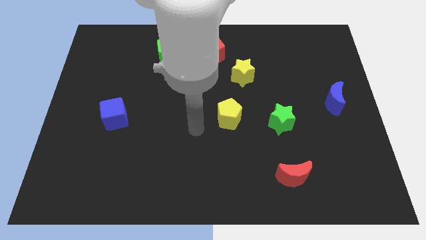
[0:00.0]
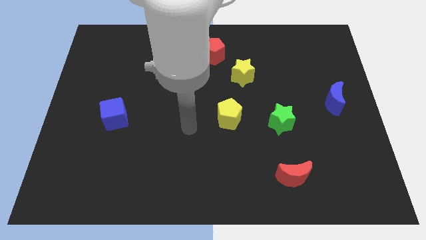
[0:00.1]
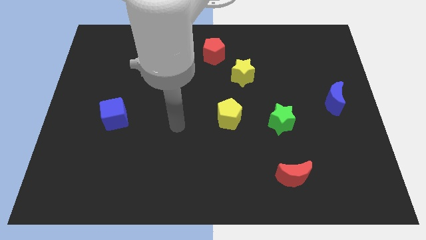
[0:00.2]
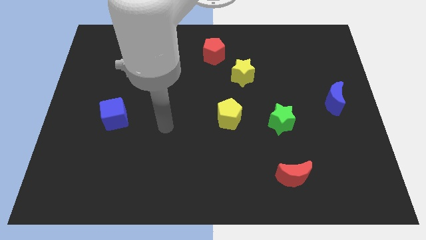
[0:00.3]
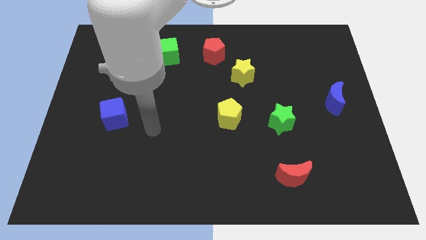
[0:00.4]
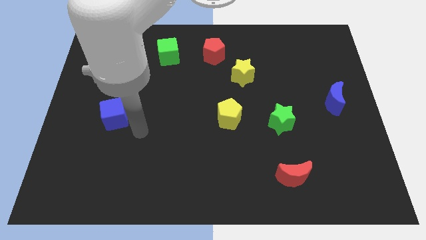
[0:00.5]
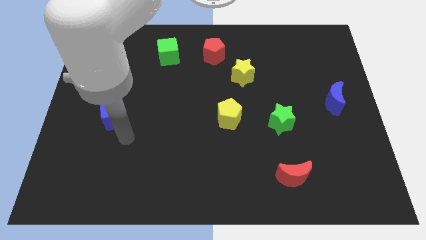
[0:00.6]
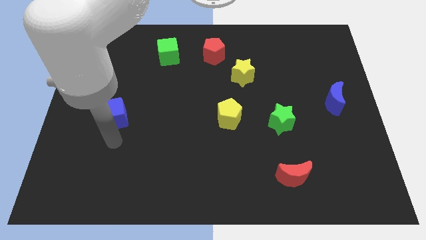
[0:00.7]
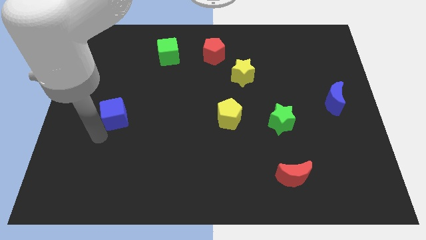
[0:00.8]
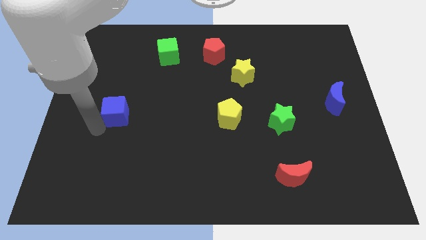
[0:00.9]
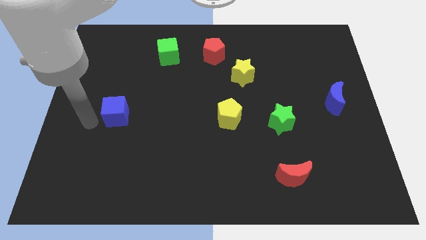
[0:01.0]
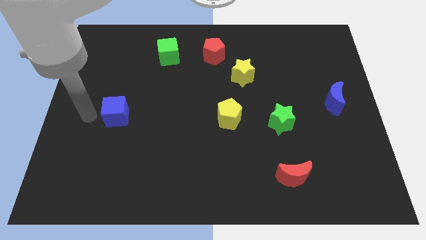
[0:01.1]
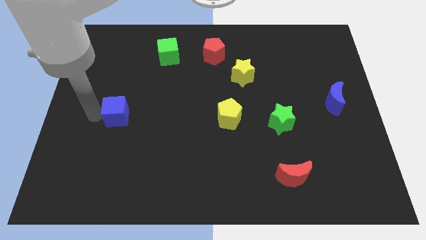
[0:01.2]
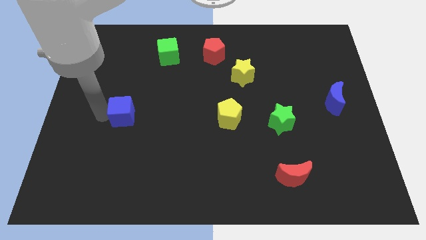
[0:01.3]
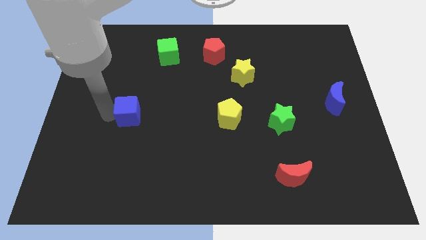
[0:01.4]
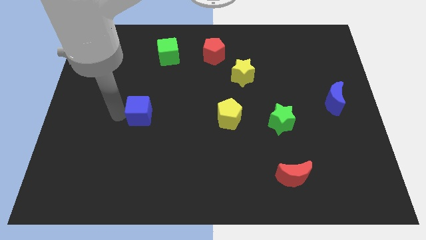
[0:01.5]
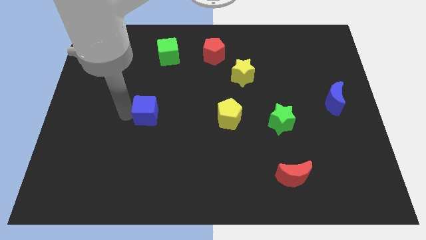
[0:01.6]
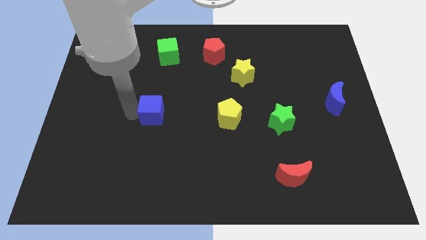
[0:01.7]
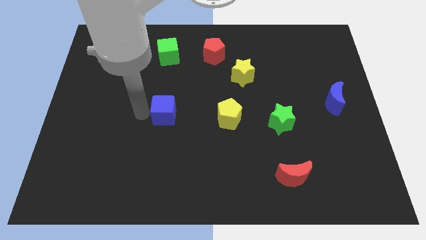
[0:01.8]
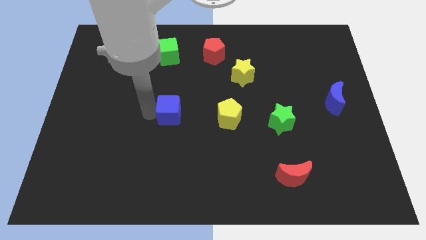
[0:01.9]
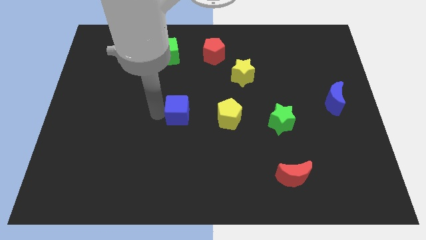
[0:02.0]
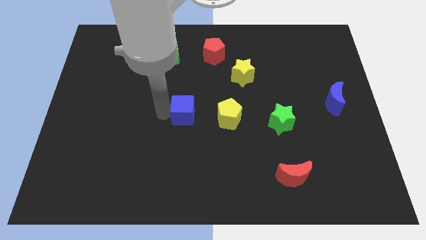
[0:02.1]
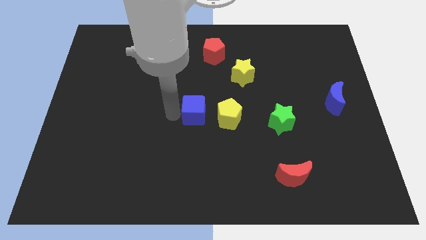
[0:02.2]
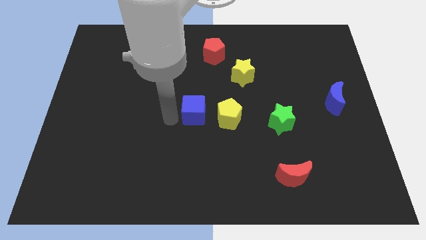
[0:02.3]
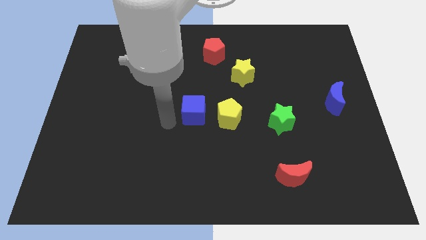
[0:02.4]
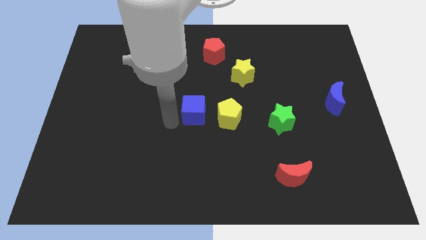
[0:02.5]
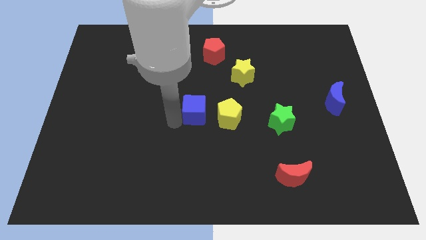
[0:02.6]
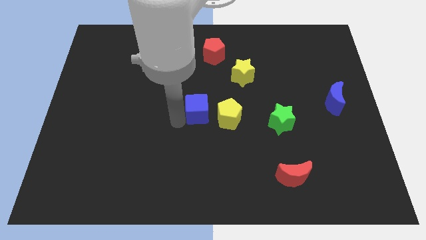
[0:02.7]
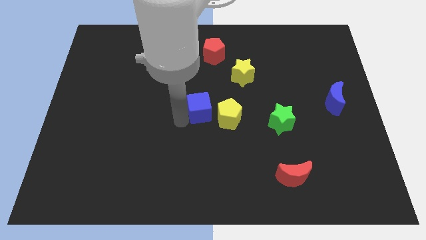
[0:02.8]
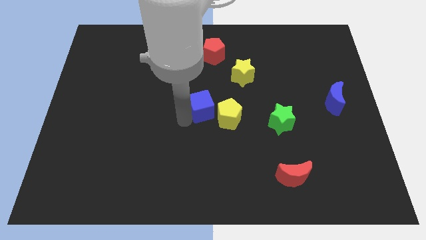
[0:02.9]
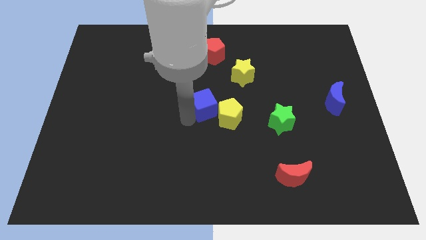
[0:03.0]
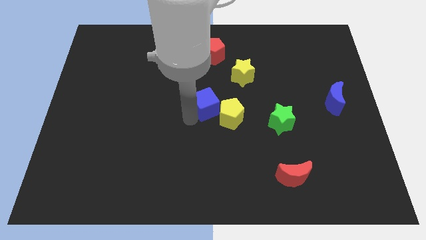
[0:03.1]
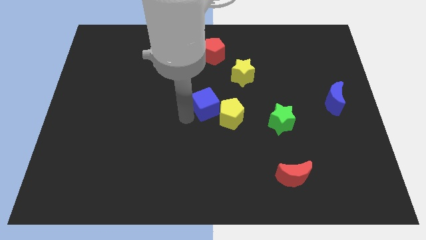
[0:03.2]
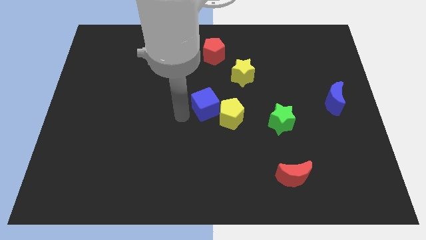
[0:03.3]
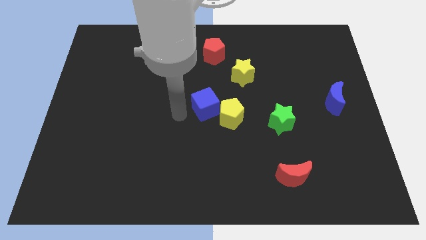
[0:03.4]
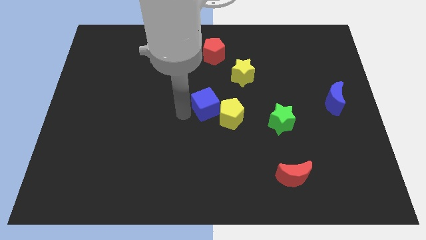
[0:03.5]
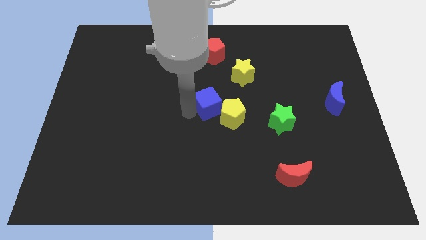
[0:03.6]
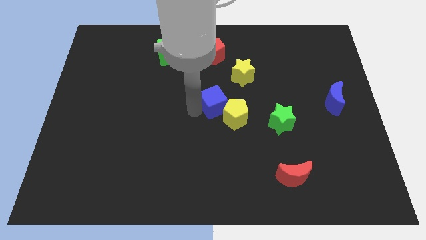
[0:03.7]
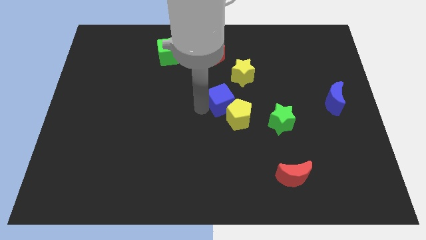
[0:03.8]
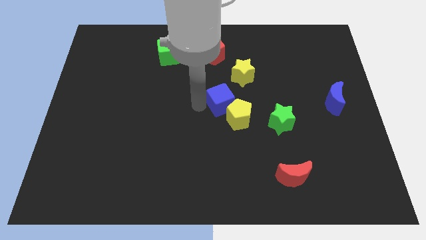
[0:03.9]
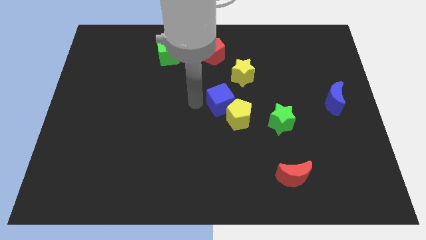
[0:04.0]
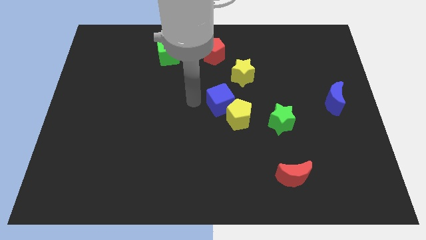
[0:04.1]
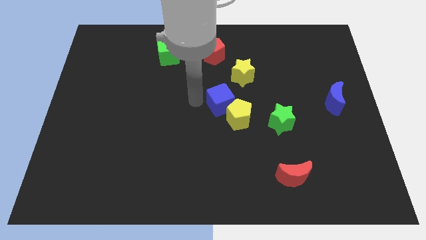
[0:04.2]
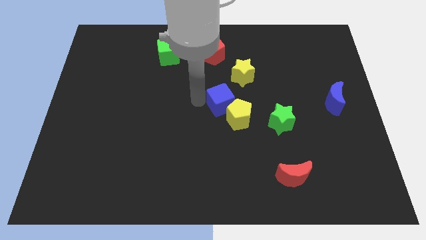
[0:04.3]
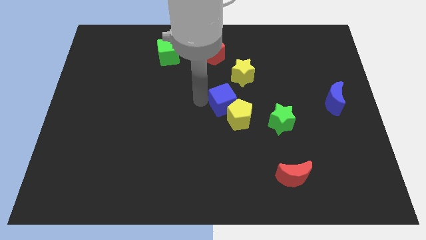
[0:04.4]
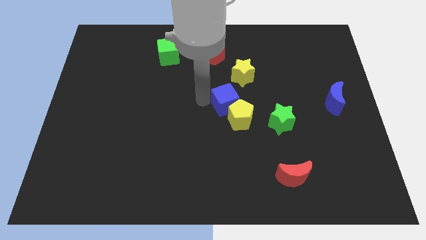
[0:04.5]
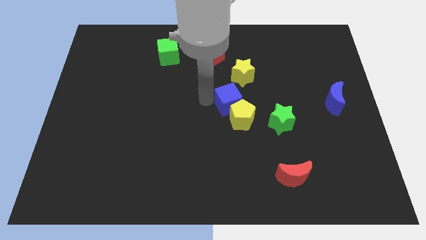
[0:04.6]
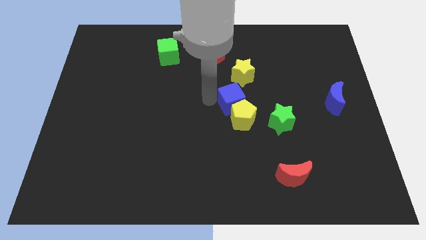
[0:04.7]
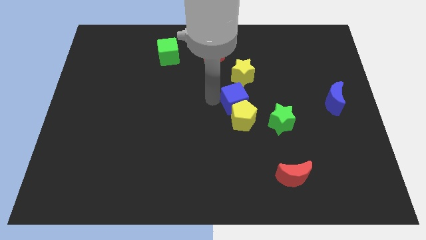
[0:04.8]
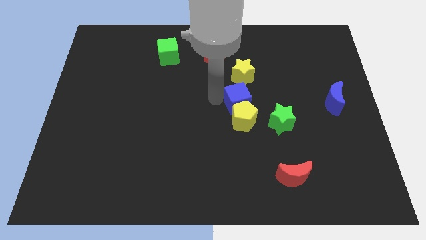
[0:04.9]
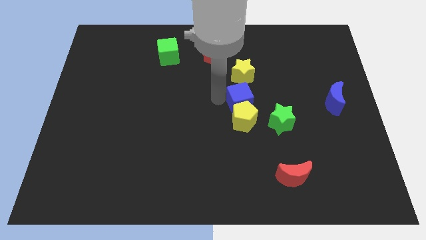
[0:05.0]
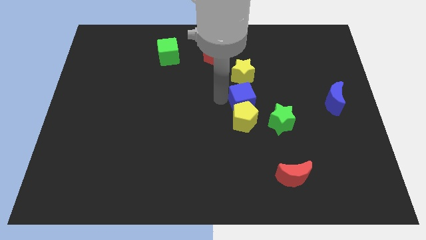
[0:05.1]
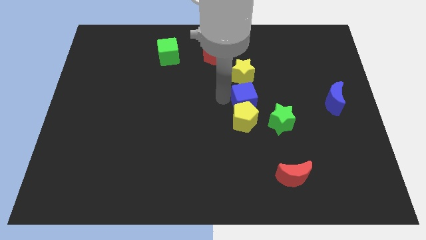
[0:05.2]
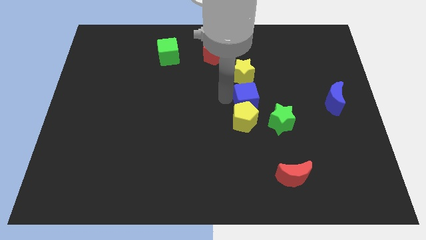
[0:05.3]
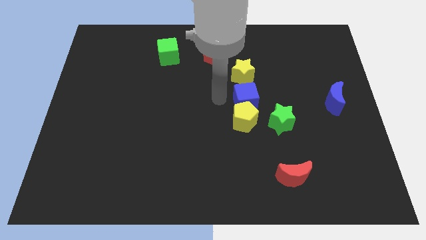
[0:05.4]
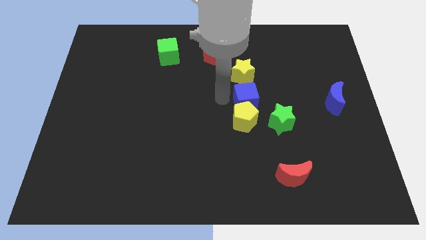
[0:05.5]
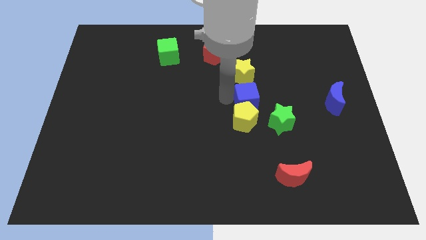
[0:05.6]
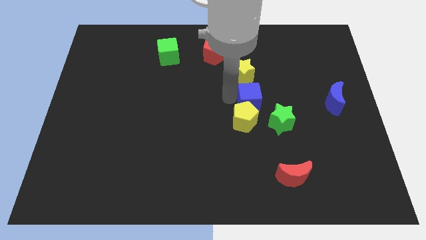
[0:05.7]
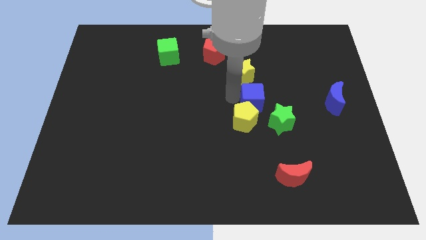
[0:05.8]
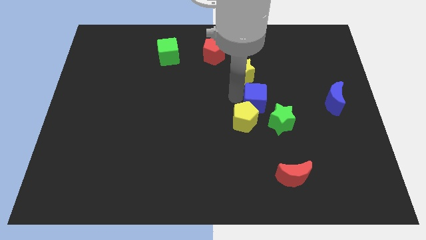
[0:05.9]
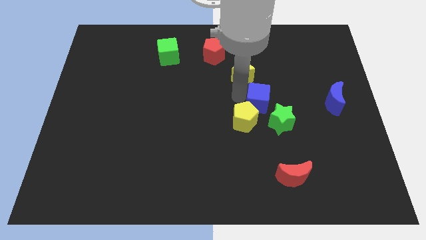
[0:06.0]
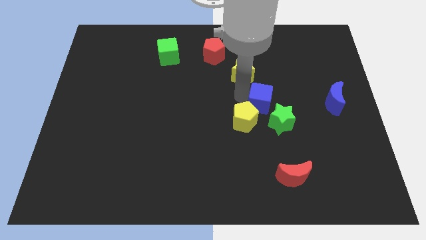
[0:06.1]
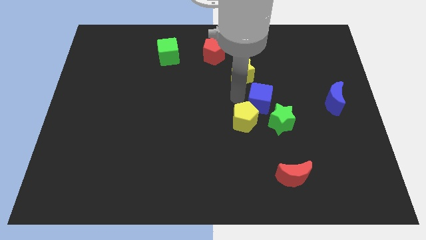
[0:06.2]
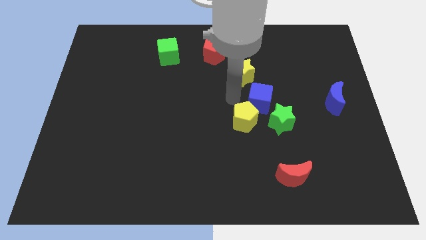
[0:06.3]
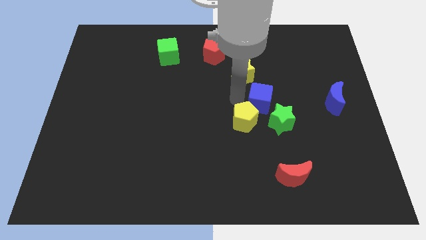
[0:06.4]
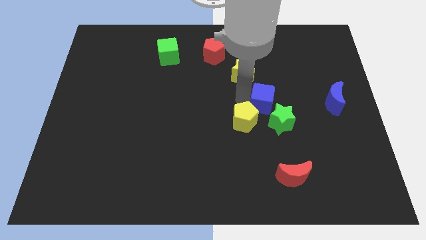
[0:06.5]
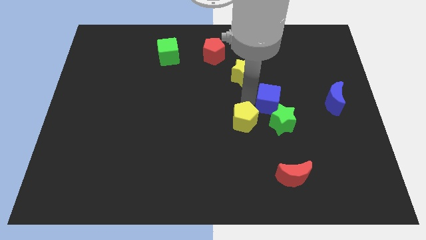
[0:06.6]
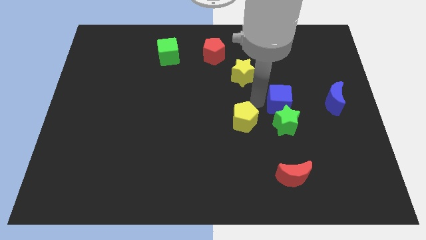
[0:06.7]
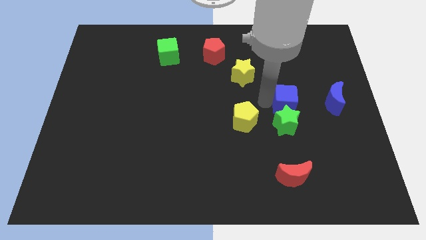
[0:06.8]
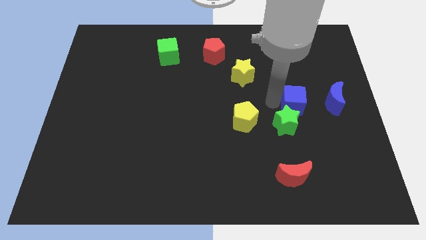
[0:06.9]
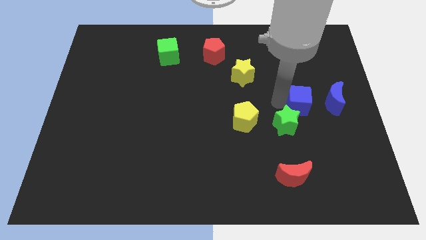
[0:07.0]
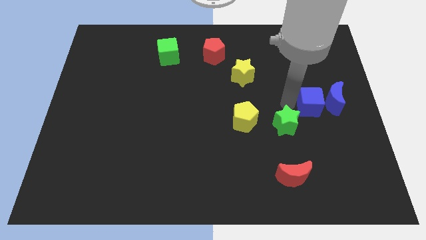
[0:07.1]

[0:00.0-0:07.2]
push the blue cube close to the blue moon
